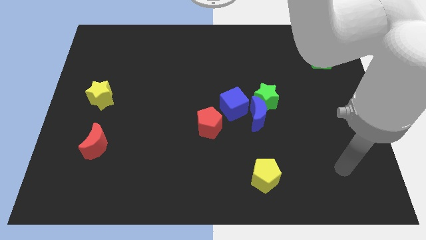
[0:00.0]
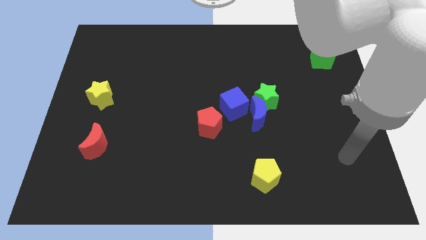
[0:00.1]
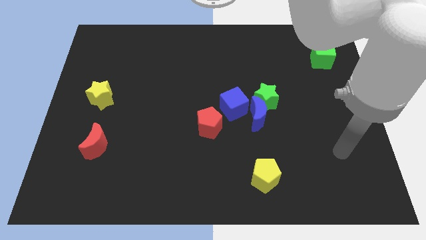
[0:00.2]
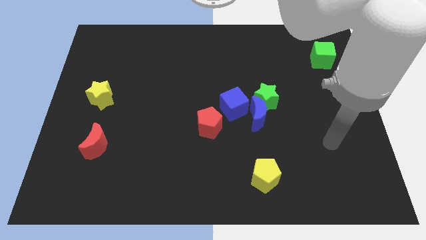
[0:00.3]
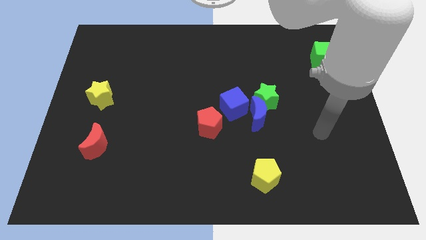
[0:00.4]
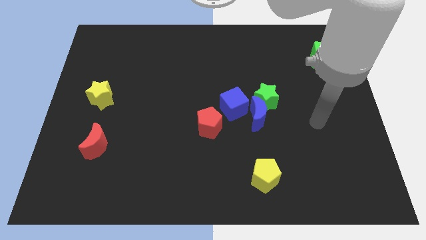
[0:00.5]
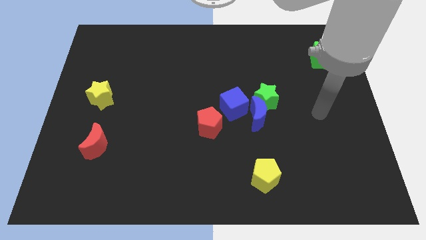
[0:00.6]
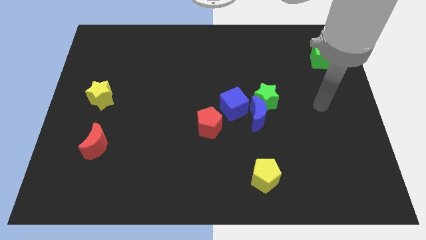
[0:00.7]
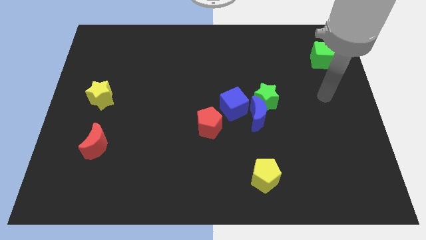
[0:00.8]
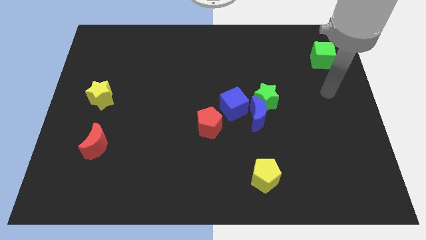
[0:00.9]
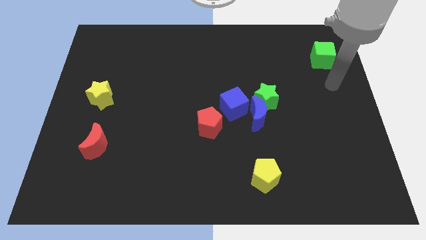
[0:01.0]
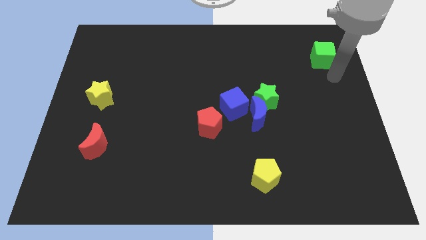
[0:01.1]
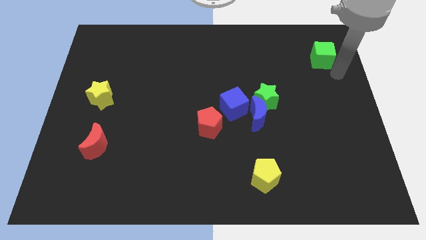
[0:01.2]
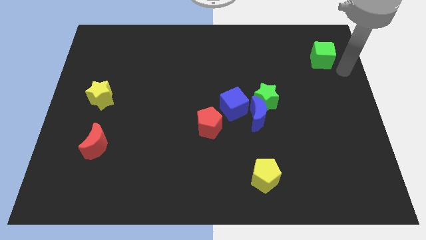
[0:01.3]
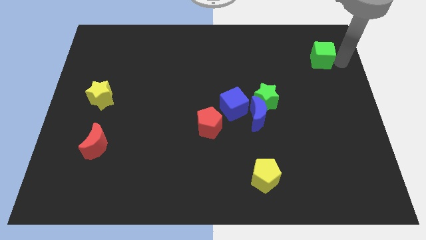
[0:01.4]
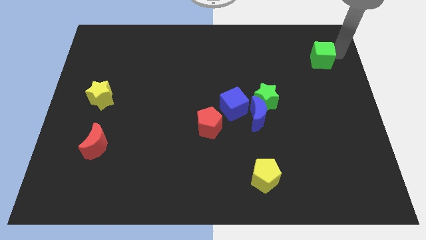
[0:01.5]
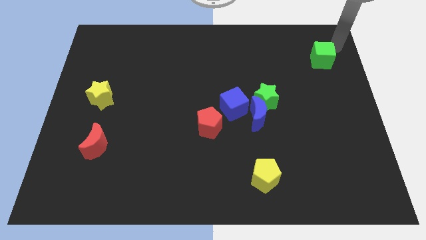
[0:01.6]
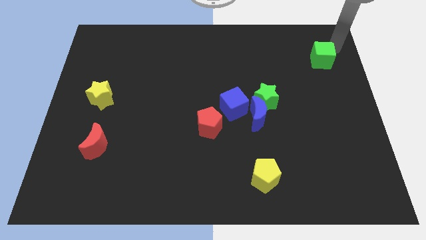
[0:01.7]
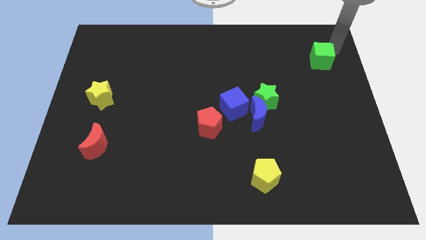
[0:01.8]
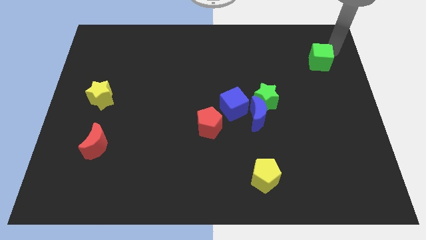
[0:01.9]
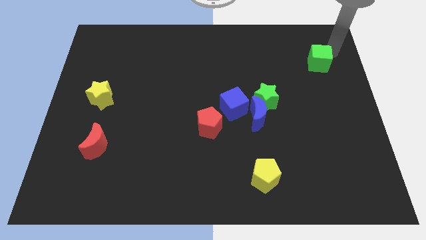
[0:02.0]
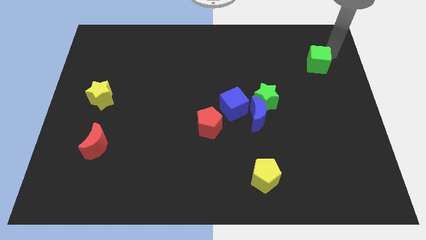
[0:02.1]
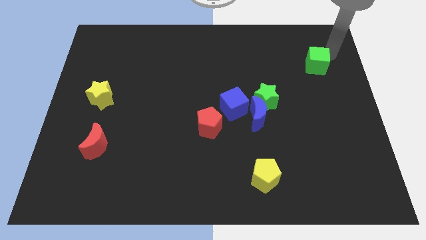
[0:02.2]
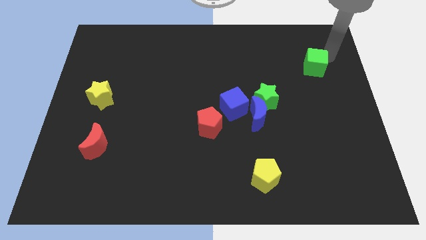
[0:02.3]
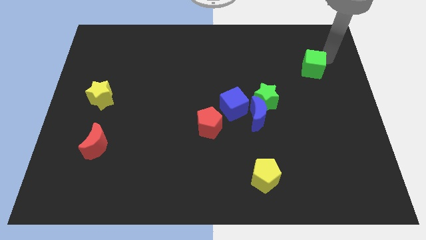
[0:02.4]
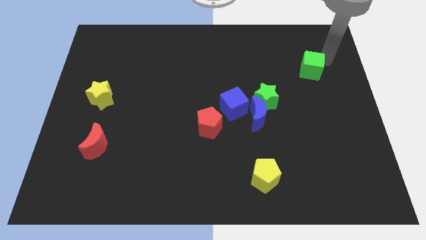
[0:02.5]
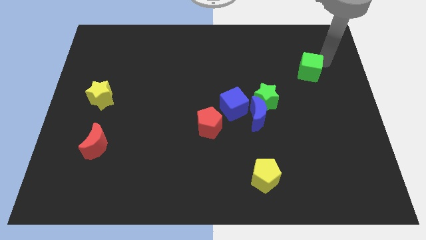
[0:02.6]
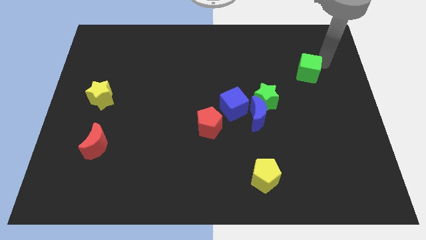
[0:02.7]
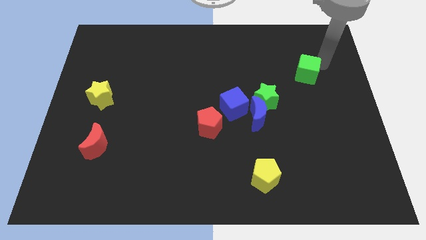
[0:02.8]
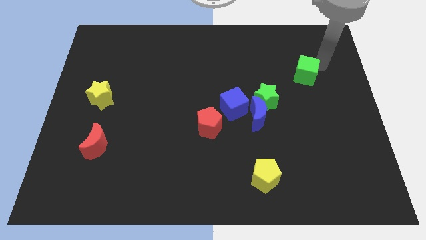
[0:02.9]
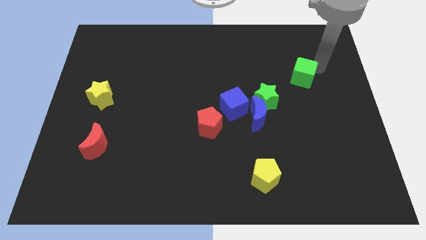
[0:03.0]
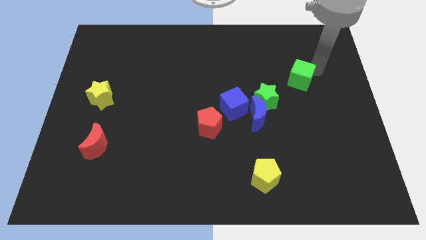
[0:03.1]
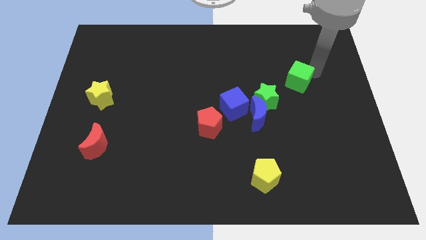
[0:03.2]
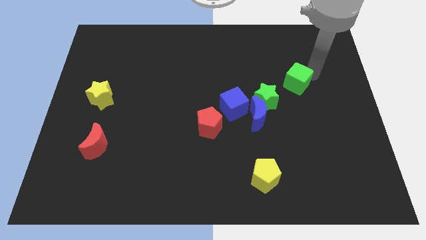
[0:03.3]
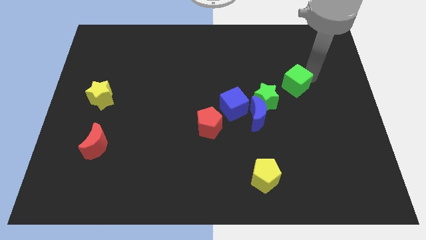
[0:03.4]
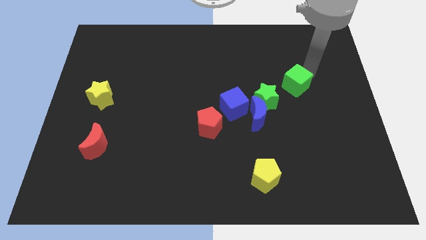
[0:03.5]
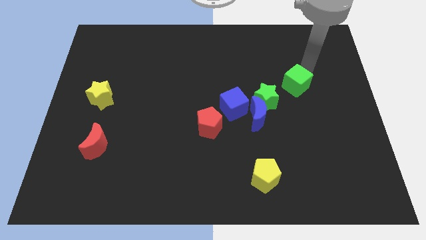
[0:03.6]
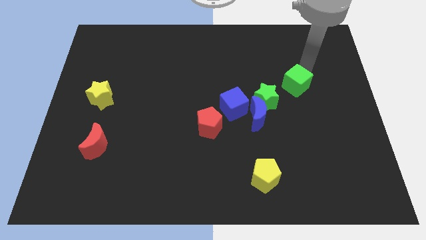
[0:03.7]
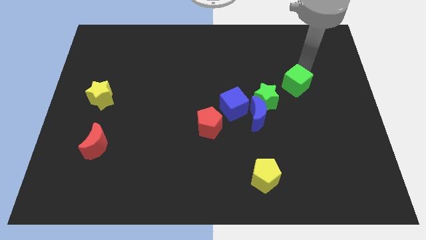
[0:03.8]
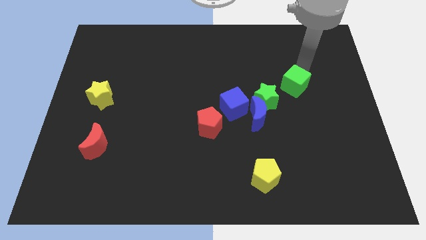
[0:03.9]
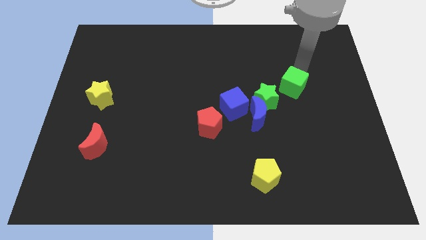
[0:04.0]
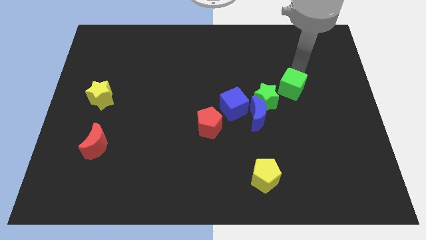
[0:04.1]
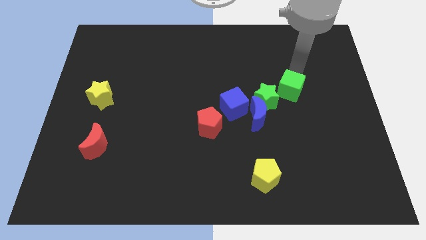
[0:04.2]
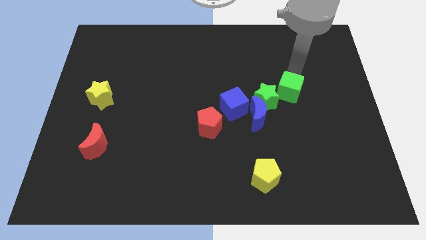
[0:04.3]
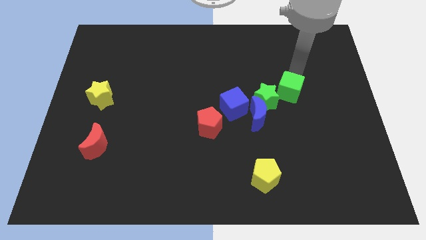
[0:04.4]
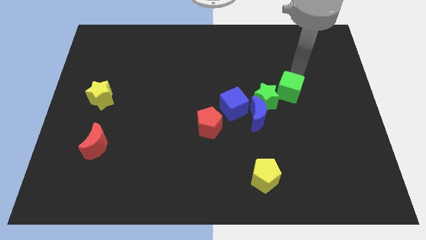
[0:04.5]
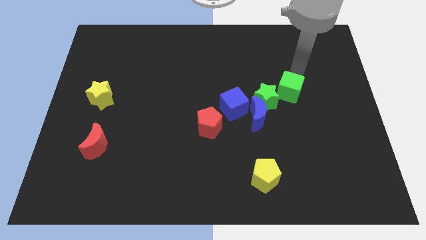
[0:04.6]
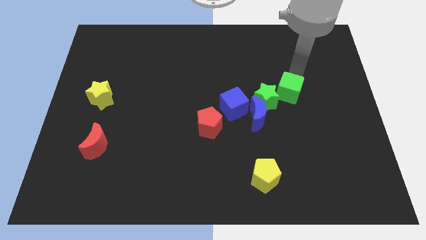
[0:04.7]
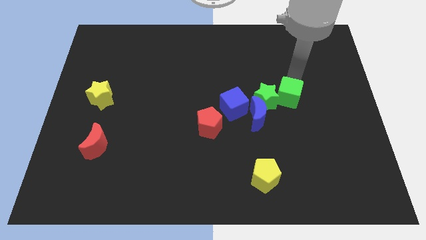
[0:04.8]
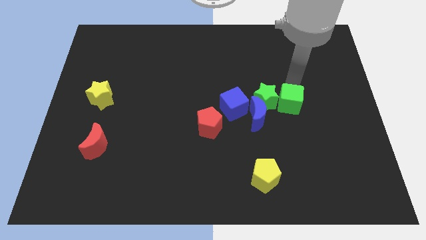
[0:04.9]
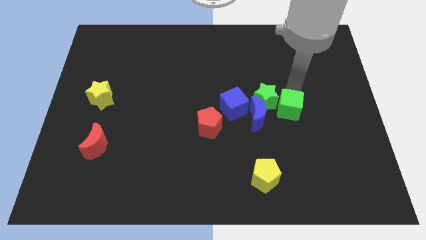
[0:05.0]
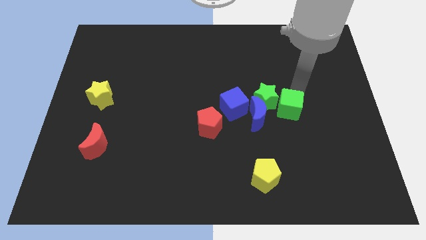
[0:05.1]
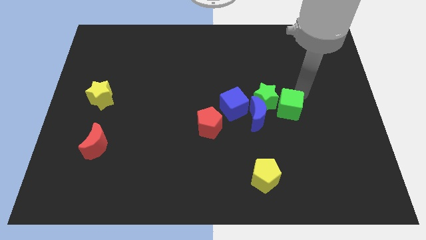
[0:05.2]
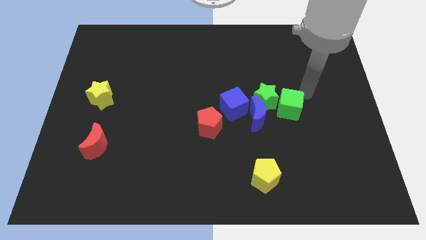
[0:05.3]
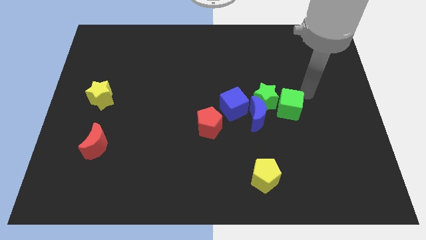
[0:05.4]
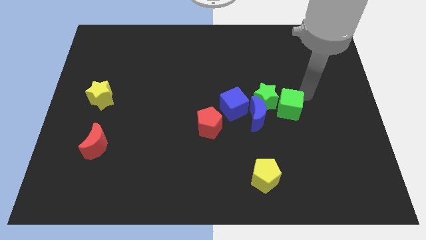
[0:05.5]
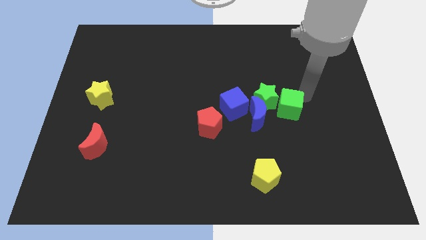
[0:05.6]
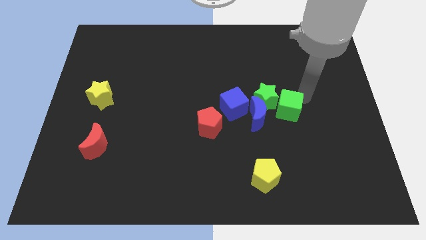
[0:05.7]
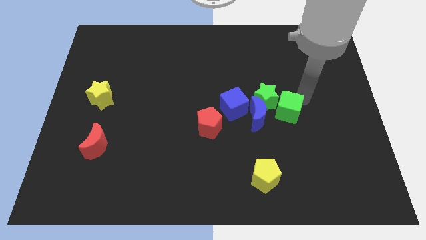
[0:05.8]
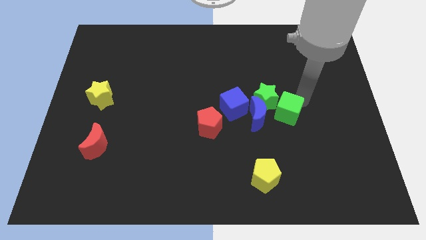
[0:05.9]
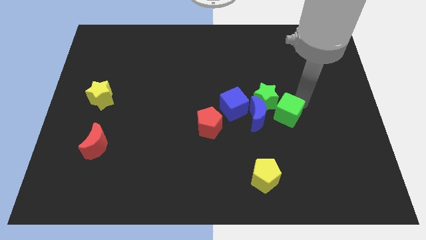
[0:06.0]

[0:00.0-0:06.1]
push the green cube diagonally down and left

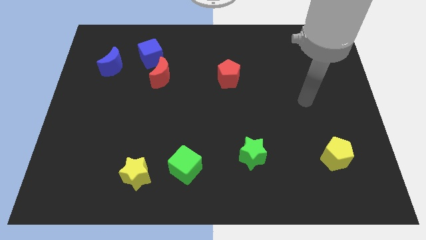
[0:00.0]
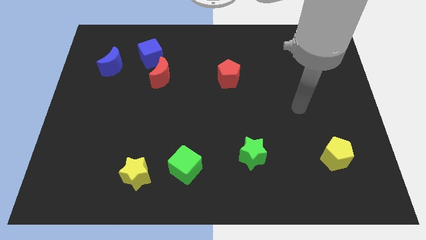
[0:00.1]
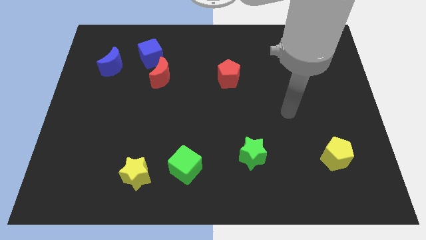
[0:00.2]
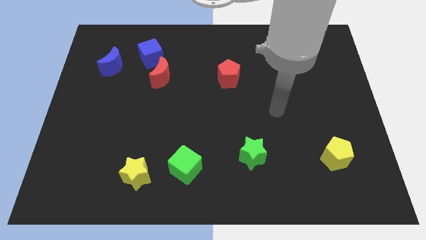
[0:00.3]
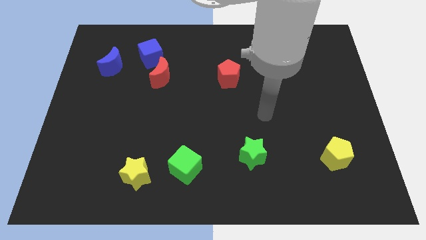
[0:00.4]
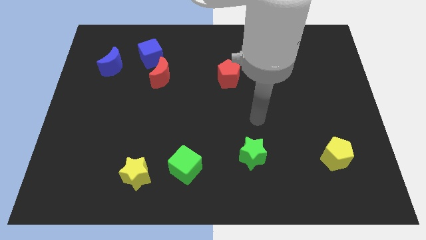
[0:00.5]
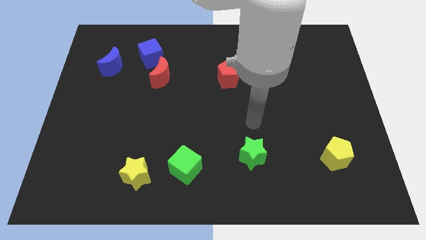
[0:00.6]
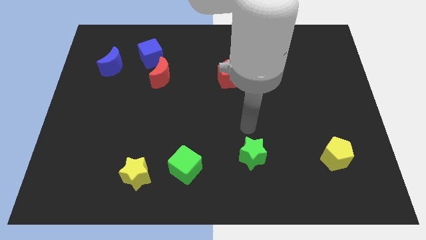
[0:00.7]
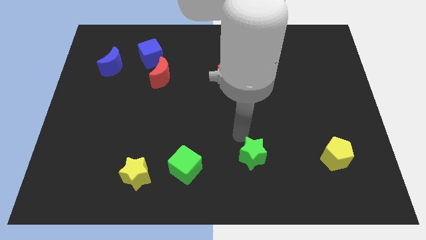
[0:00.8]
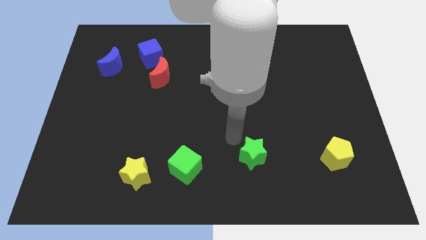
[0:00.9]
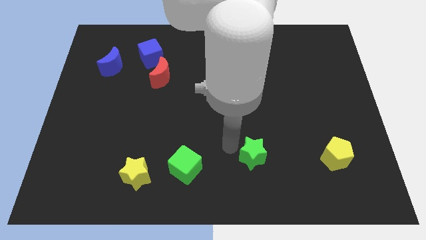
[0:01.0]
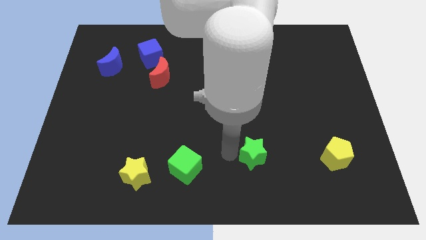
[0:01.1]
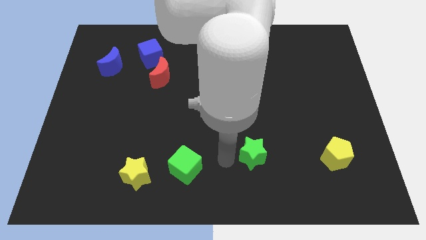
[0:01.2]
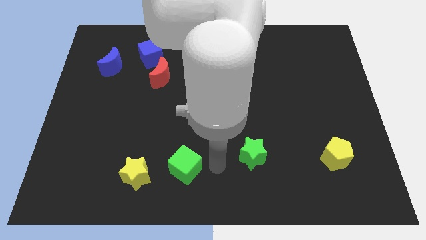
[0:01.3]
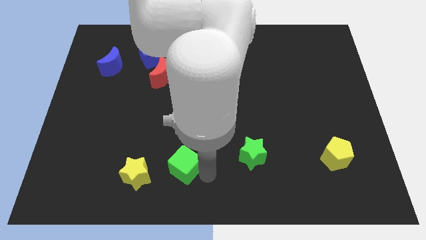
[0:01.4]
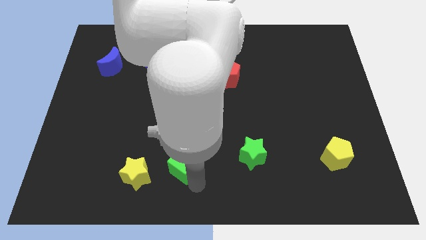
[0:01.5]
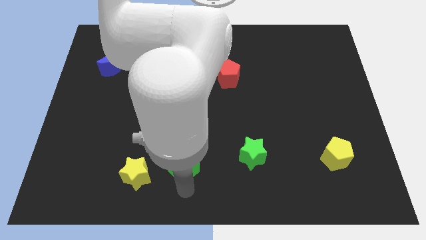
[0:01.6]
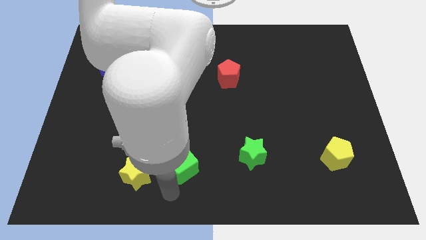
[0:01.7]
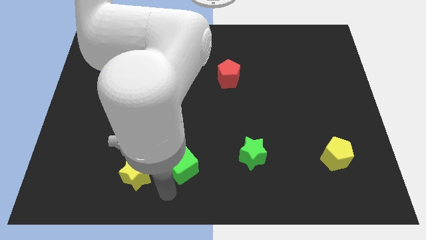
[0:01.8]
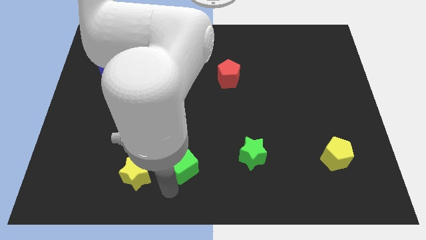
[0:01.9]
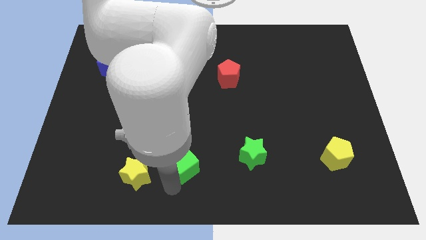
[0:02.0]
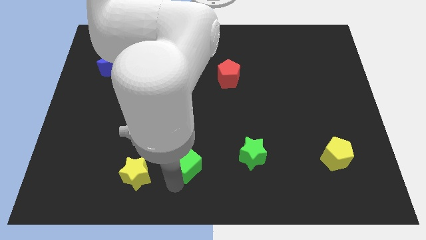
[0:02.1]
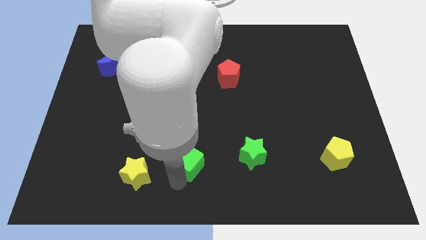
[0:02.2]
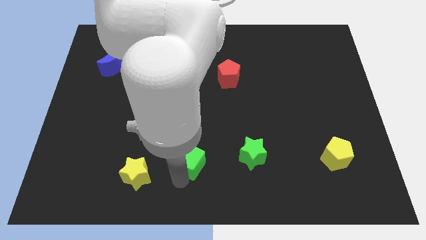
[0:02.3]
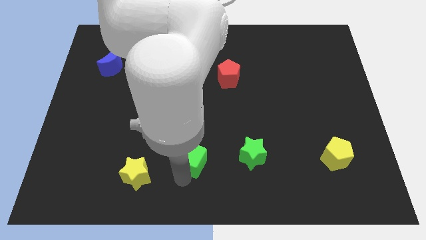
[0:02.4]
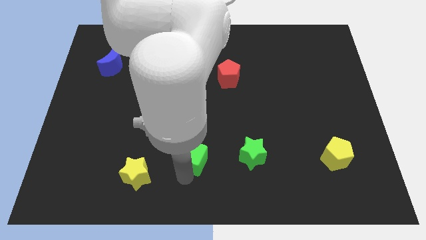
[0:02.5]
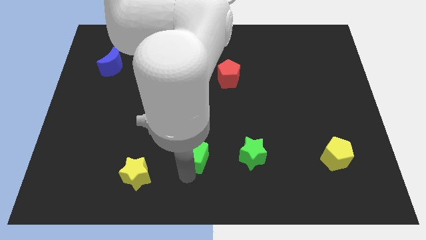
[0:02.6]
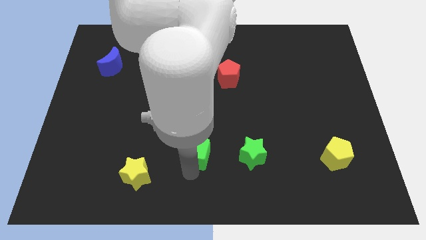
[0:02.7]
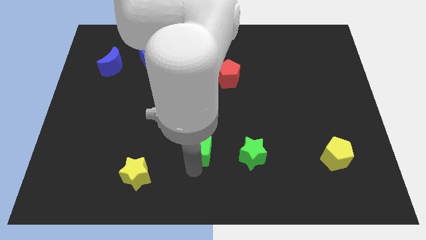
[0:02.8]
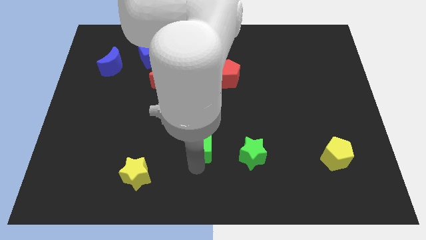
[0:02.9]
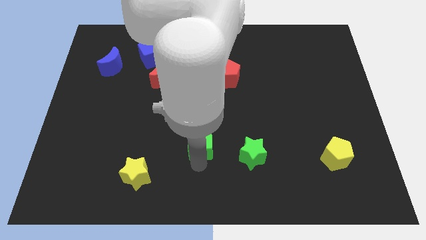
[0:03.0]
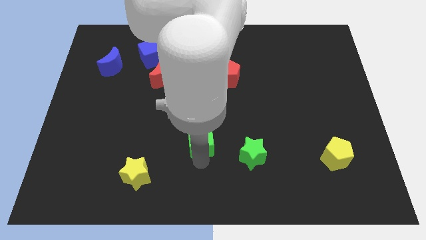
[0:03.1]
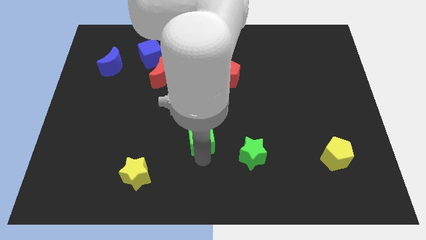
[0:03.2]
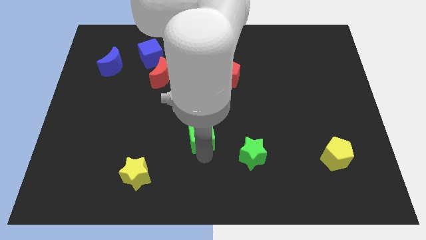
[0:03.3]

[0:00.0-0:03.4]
slightly slide the green cube up
